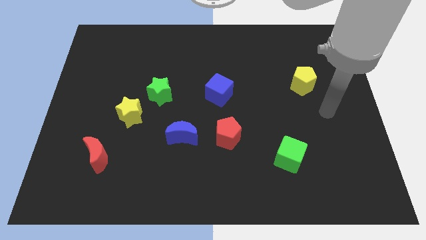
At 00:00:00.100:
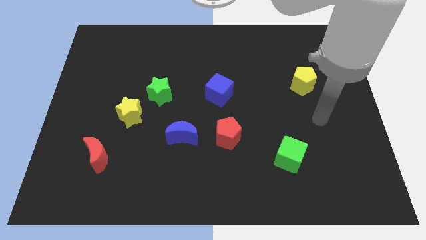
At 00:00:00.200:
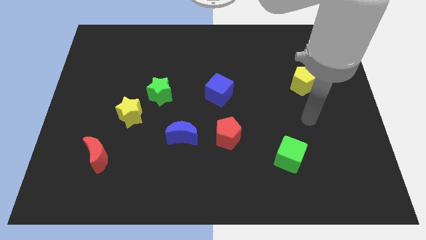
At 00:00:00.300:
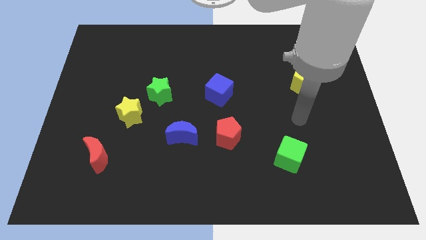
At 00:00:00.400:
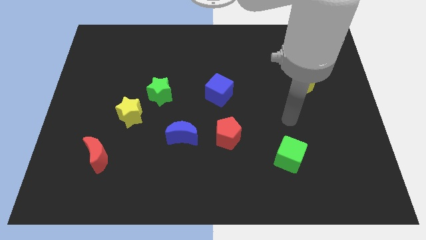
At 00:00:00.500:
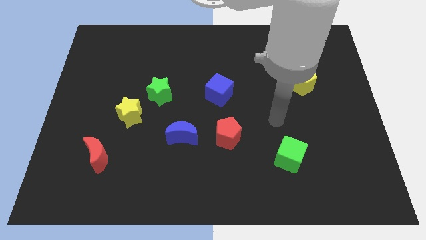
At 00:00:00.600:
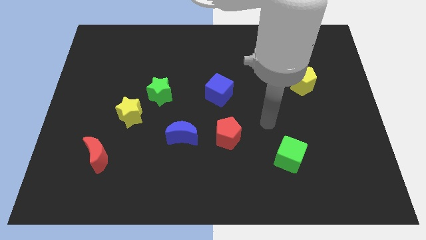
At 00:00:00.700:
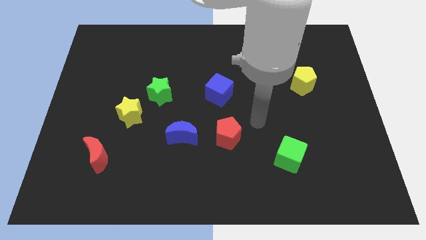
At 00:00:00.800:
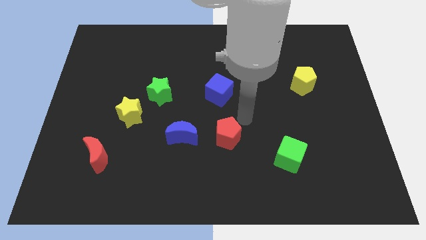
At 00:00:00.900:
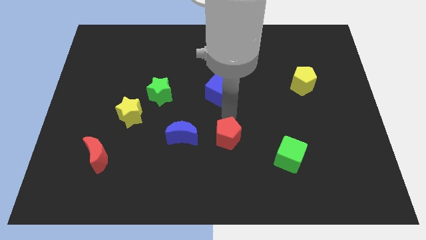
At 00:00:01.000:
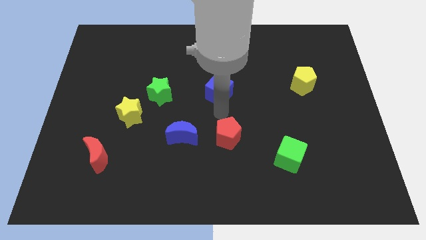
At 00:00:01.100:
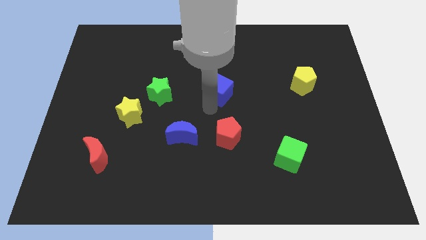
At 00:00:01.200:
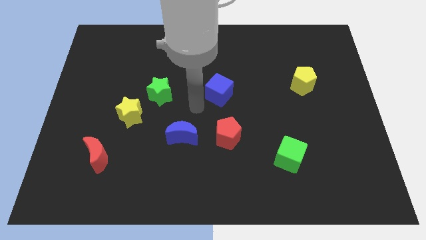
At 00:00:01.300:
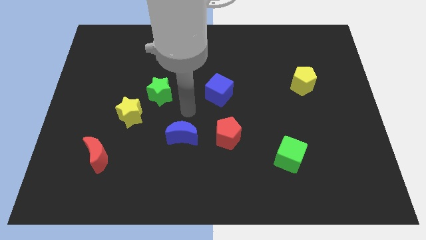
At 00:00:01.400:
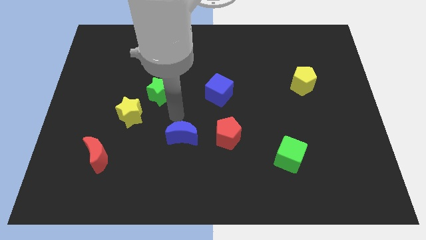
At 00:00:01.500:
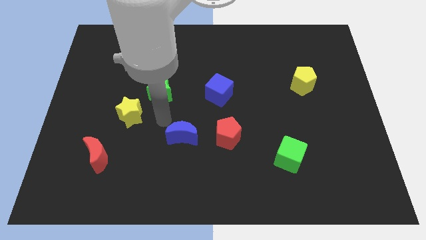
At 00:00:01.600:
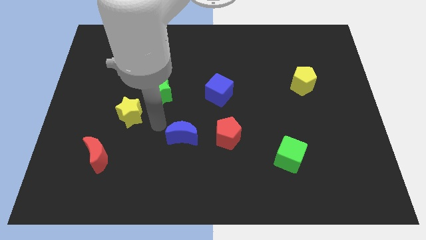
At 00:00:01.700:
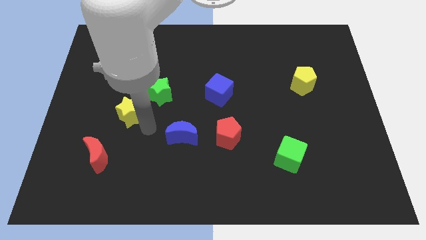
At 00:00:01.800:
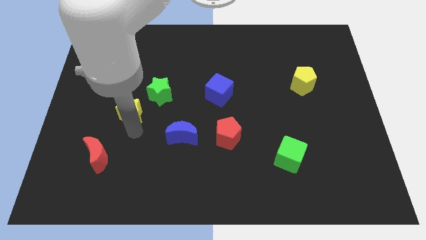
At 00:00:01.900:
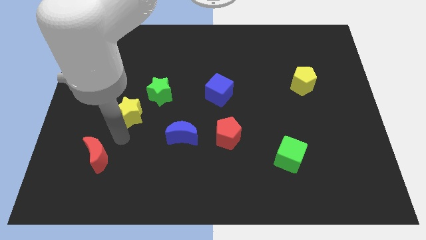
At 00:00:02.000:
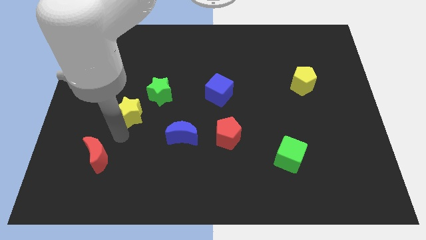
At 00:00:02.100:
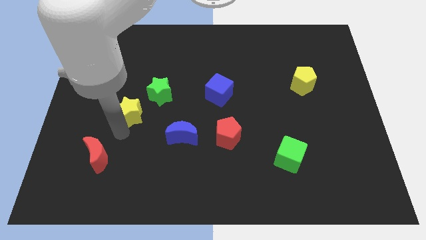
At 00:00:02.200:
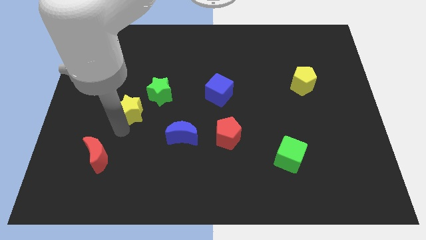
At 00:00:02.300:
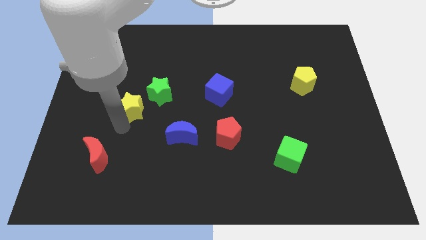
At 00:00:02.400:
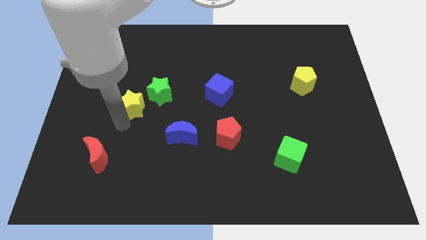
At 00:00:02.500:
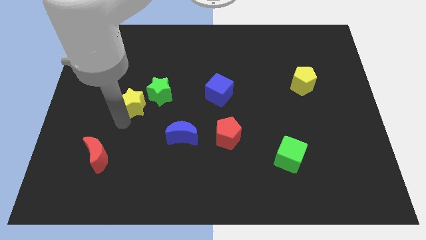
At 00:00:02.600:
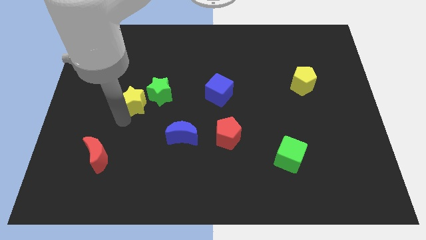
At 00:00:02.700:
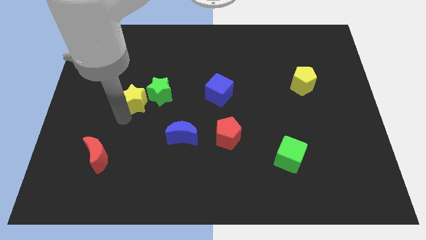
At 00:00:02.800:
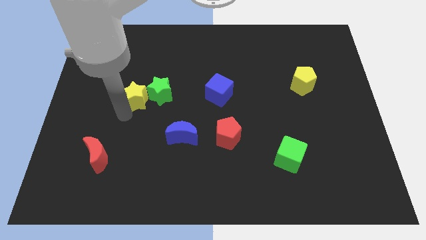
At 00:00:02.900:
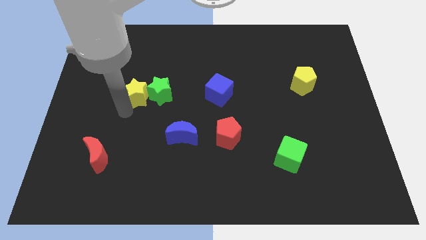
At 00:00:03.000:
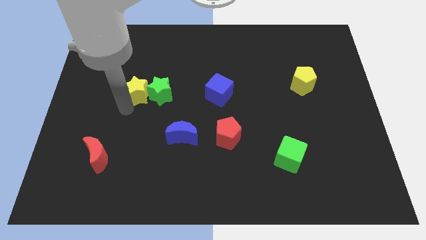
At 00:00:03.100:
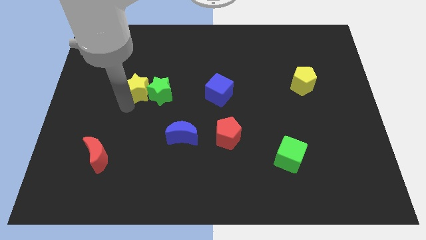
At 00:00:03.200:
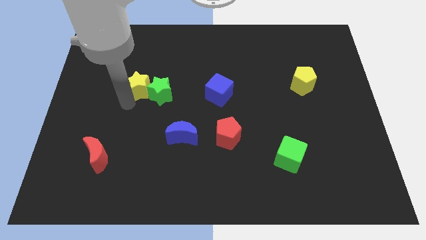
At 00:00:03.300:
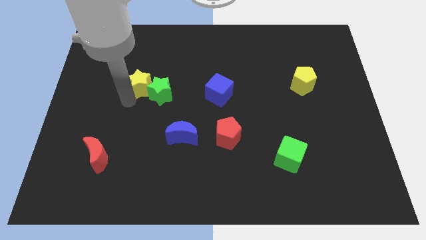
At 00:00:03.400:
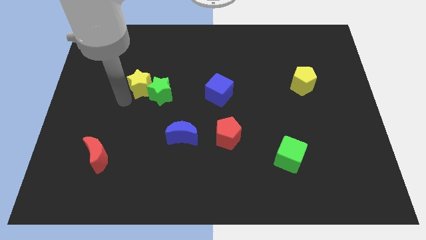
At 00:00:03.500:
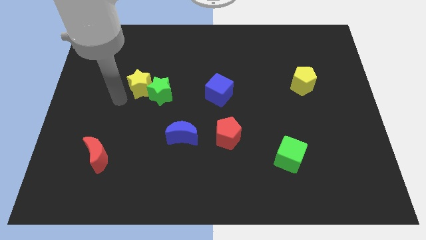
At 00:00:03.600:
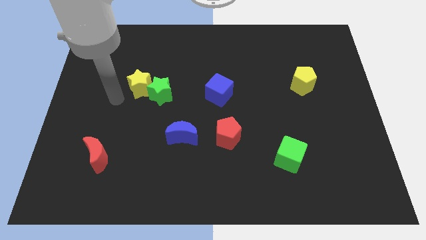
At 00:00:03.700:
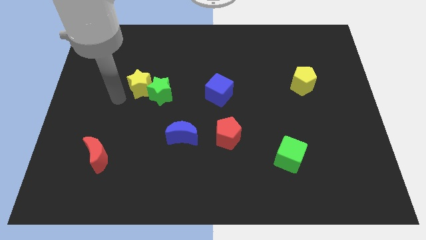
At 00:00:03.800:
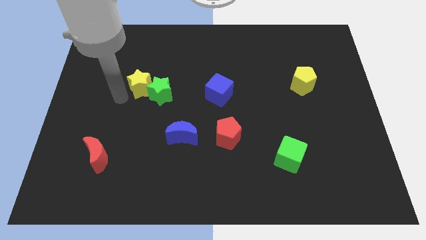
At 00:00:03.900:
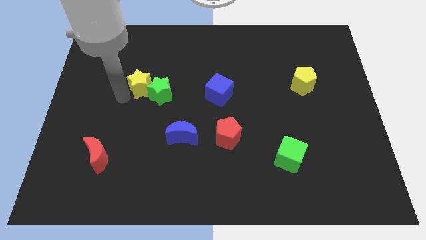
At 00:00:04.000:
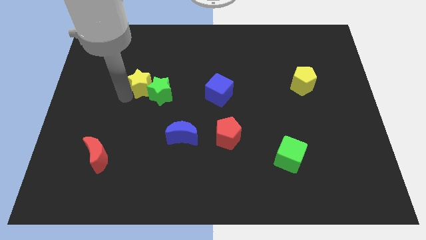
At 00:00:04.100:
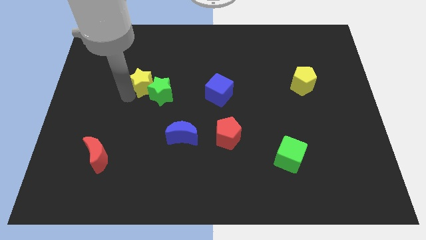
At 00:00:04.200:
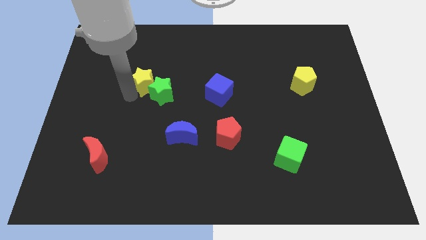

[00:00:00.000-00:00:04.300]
slightly push the yellow star upwards and to the right diagonally

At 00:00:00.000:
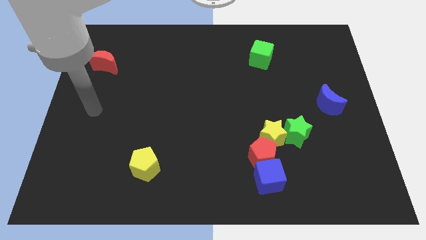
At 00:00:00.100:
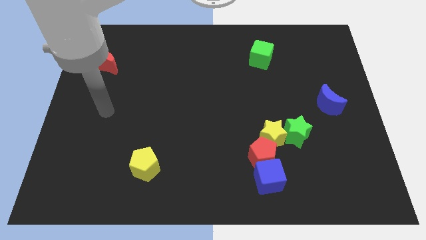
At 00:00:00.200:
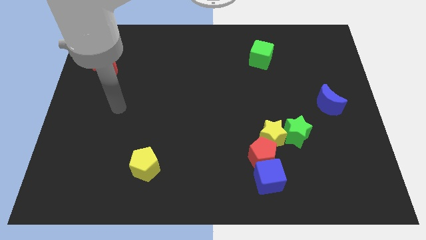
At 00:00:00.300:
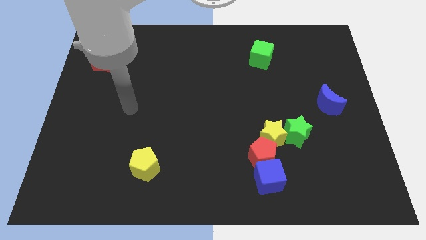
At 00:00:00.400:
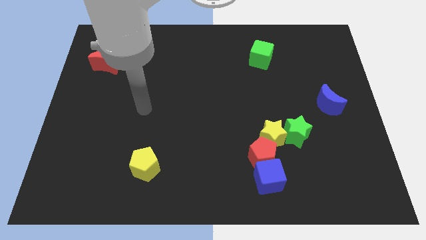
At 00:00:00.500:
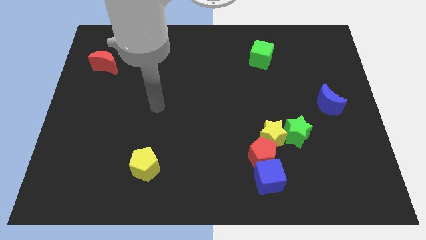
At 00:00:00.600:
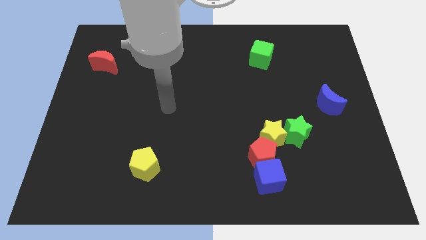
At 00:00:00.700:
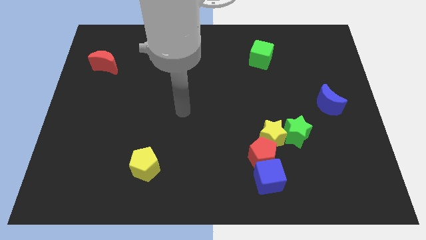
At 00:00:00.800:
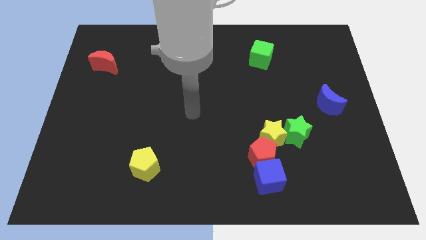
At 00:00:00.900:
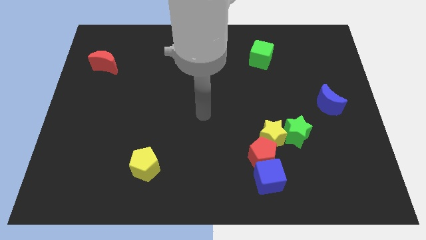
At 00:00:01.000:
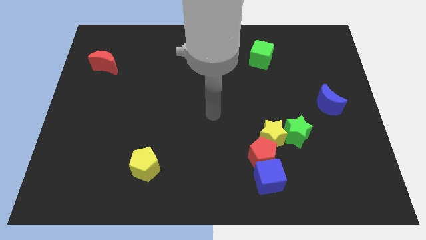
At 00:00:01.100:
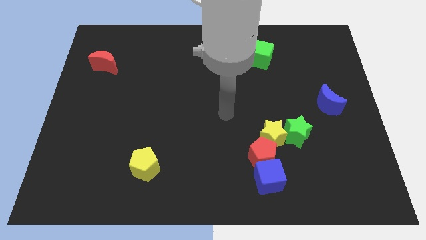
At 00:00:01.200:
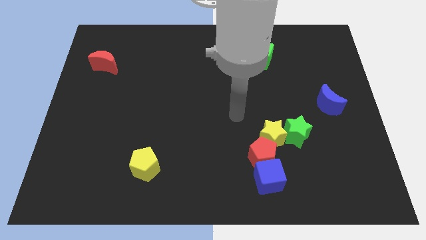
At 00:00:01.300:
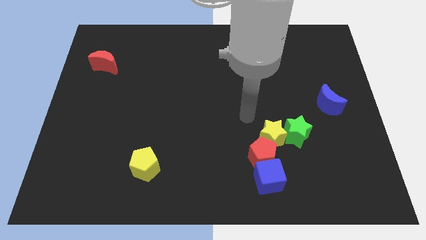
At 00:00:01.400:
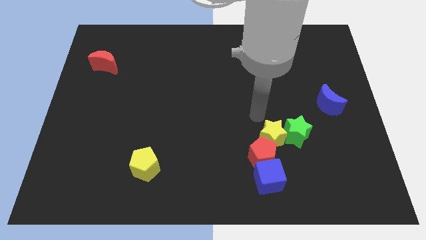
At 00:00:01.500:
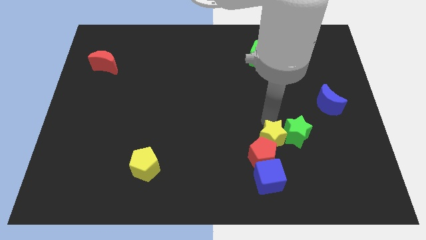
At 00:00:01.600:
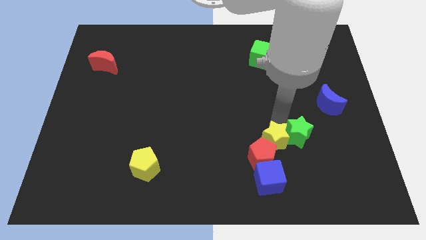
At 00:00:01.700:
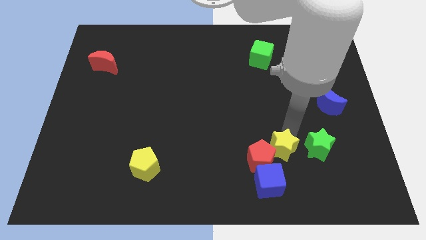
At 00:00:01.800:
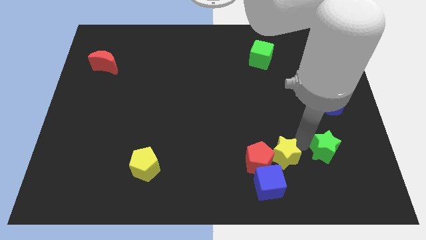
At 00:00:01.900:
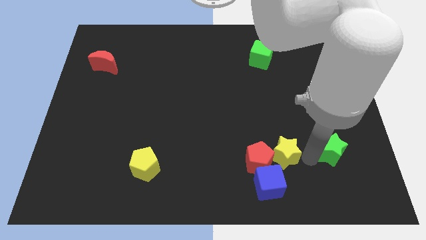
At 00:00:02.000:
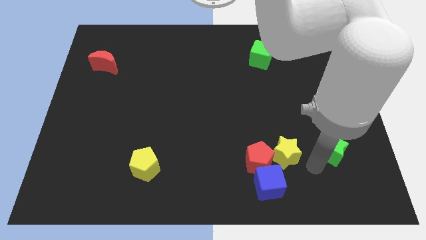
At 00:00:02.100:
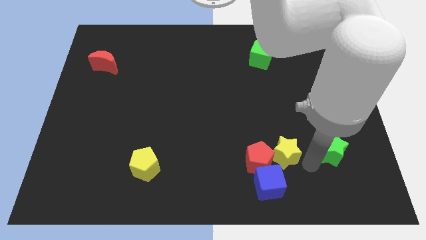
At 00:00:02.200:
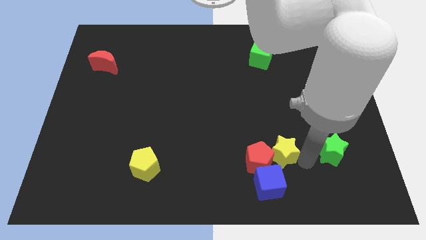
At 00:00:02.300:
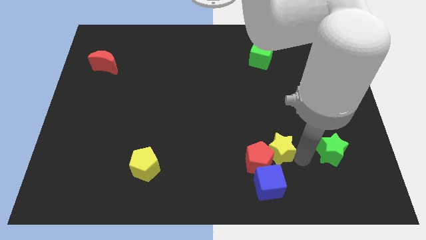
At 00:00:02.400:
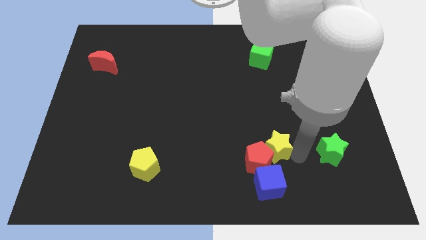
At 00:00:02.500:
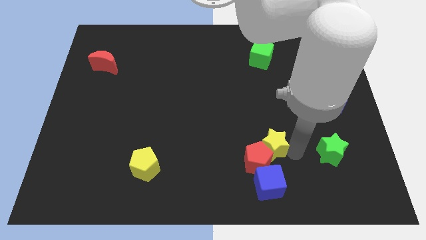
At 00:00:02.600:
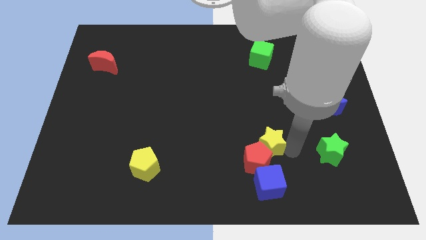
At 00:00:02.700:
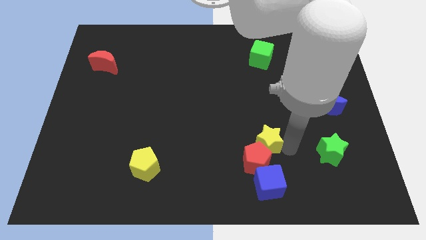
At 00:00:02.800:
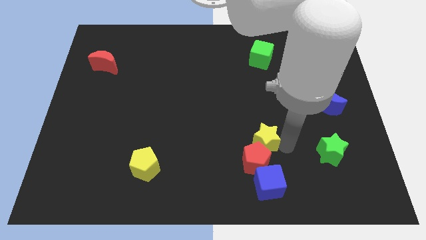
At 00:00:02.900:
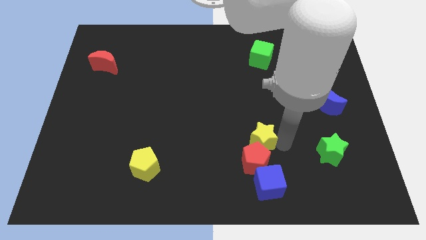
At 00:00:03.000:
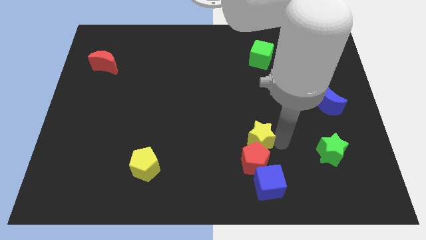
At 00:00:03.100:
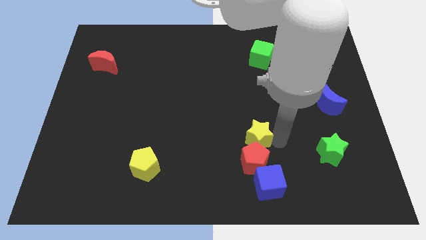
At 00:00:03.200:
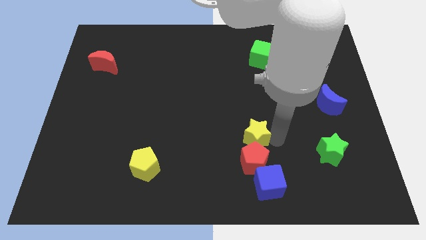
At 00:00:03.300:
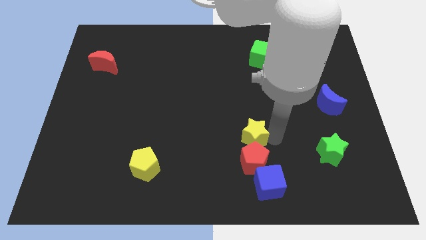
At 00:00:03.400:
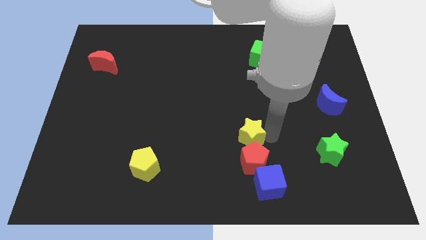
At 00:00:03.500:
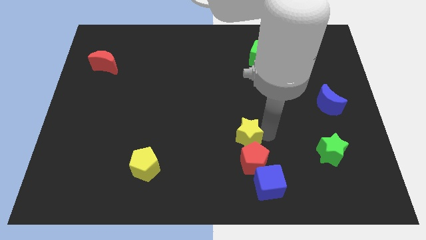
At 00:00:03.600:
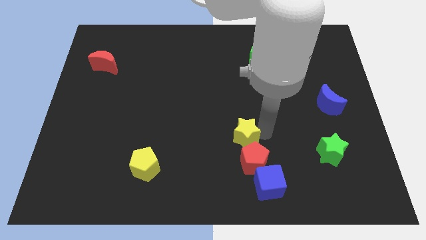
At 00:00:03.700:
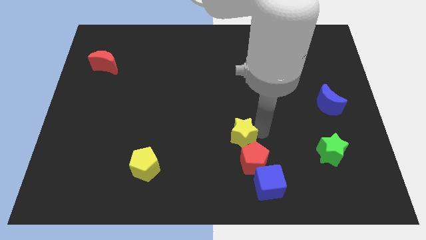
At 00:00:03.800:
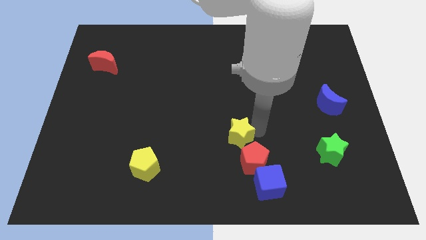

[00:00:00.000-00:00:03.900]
push the yellow star left a little
